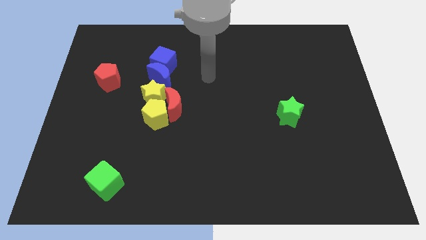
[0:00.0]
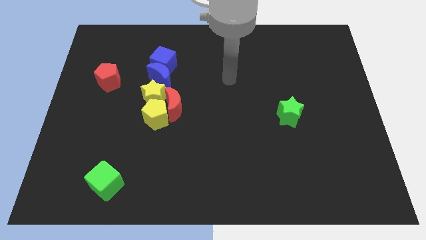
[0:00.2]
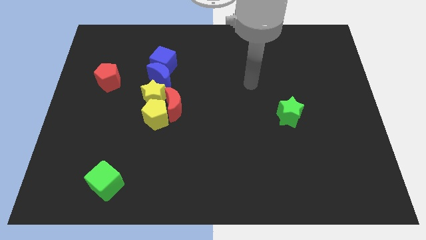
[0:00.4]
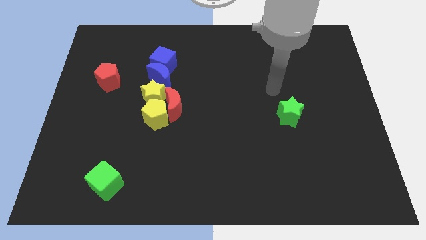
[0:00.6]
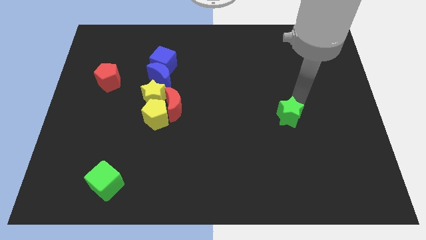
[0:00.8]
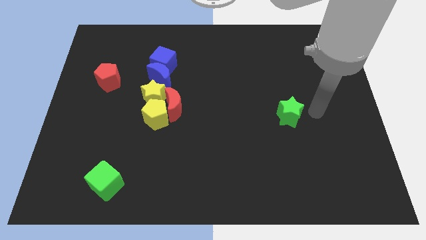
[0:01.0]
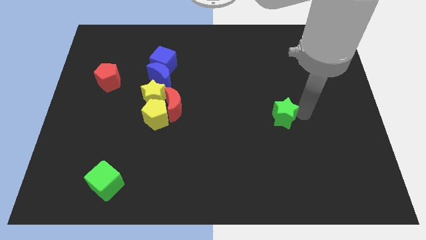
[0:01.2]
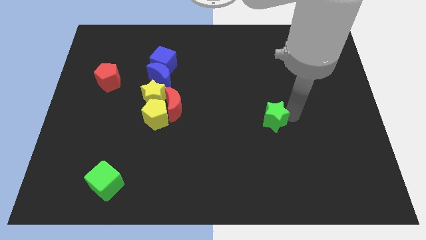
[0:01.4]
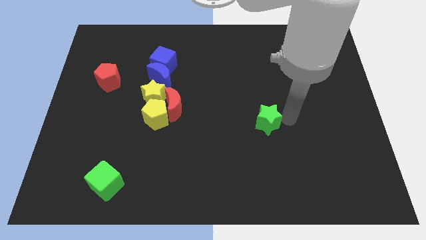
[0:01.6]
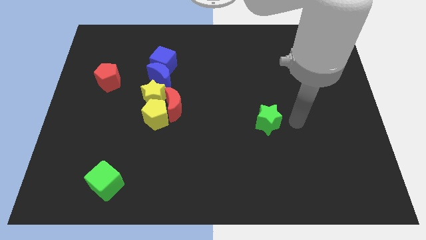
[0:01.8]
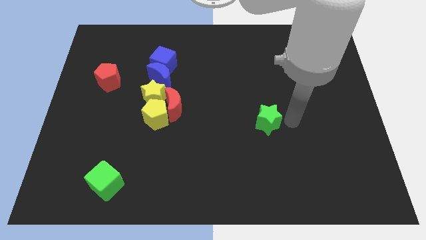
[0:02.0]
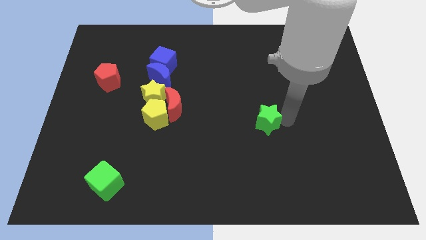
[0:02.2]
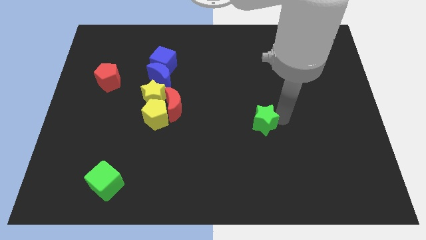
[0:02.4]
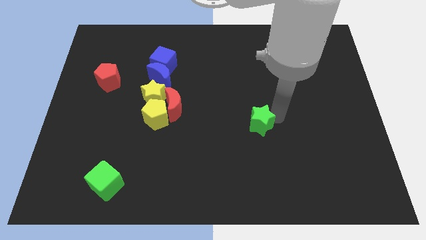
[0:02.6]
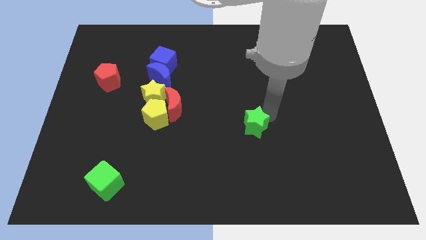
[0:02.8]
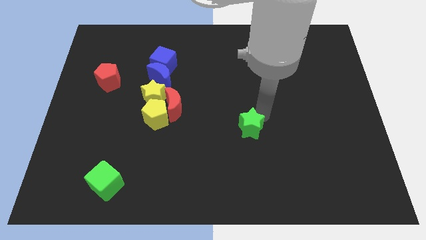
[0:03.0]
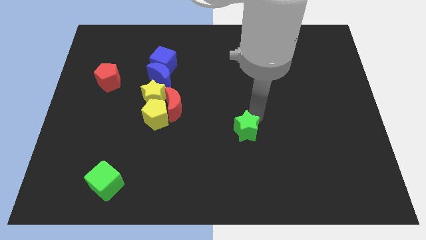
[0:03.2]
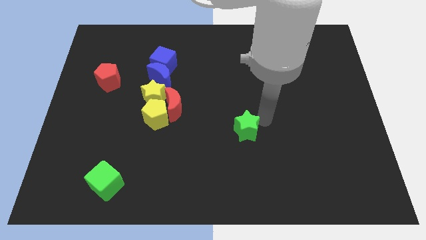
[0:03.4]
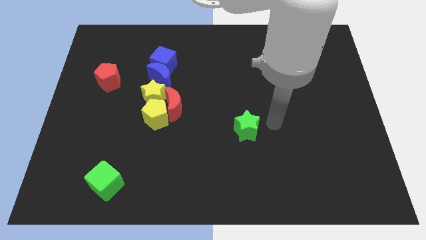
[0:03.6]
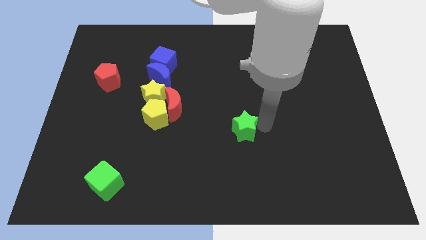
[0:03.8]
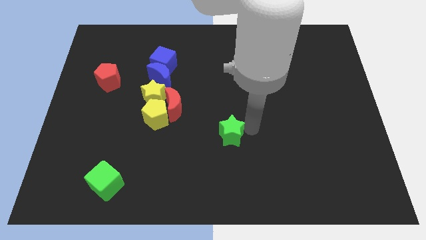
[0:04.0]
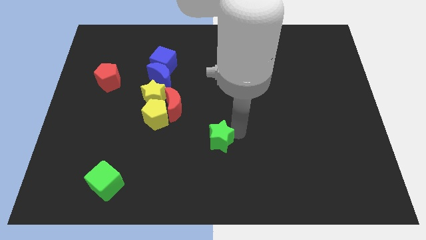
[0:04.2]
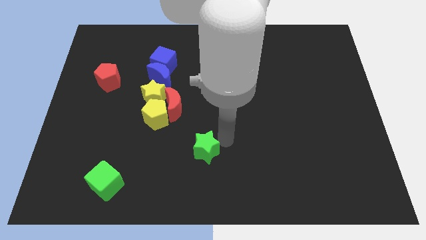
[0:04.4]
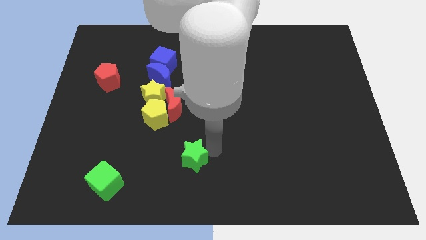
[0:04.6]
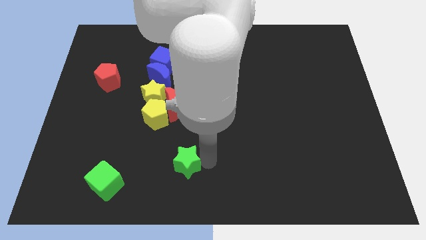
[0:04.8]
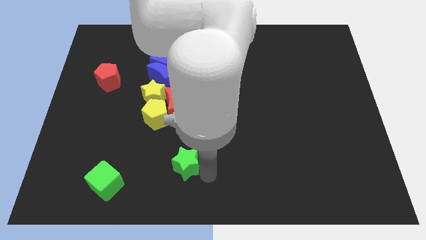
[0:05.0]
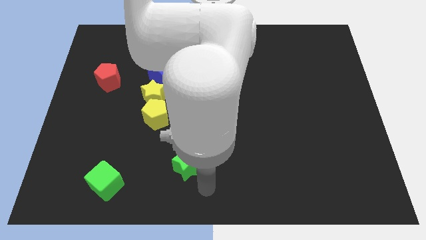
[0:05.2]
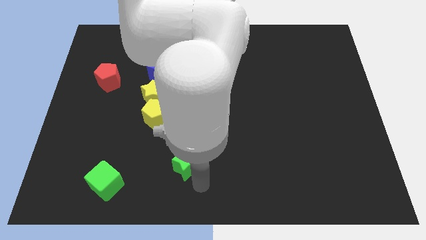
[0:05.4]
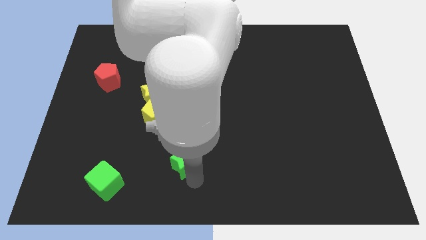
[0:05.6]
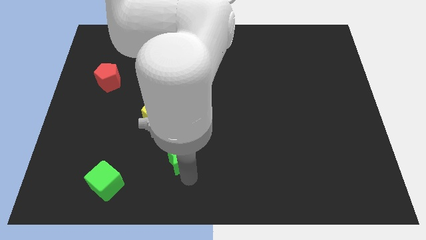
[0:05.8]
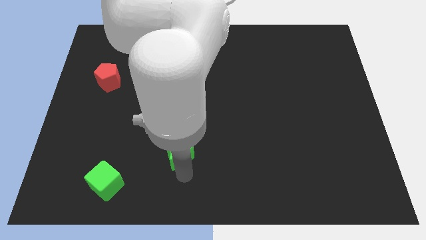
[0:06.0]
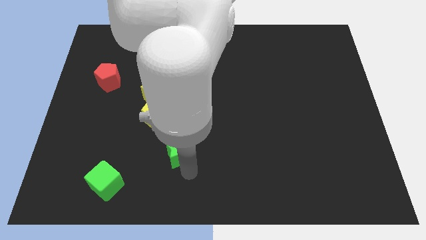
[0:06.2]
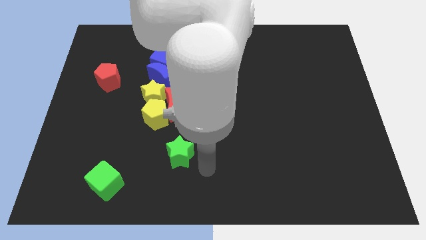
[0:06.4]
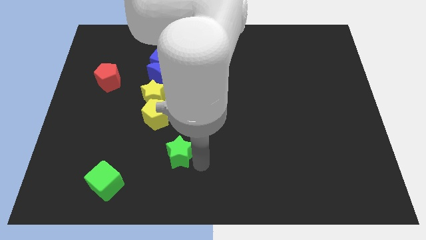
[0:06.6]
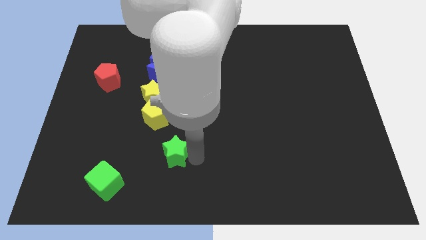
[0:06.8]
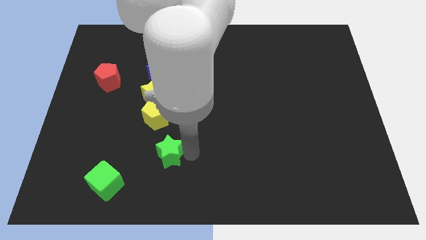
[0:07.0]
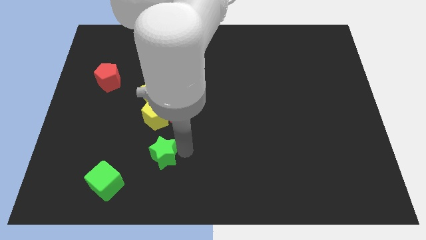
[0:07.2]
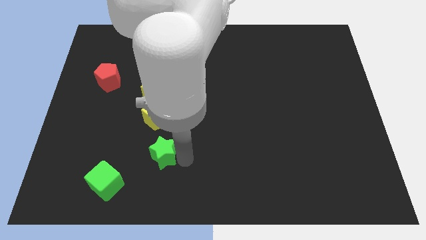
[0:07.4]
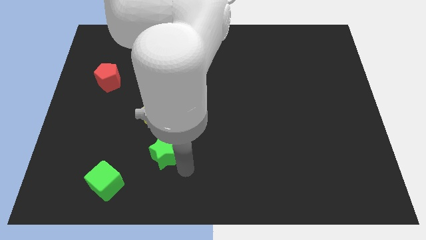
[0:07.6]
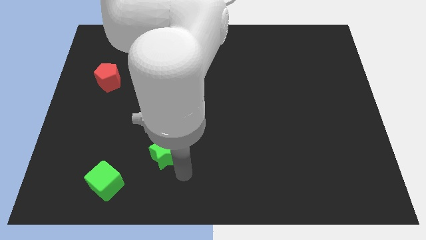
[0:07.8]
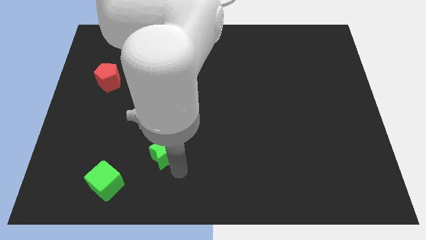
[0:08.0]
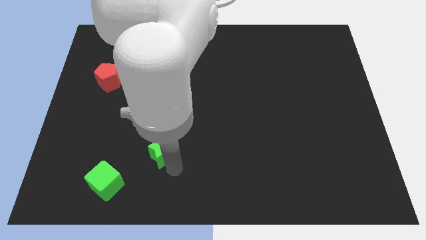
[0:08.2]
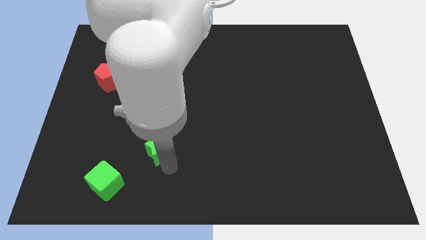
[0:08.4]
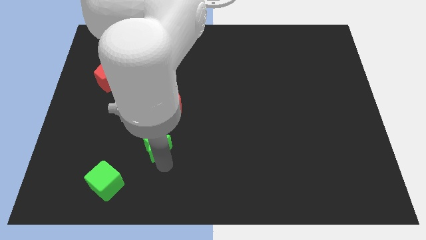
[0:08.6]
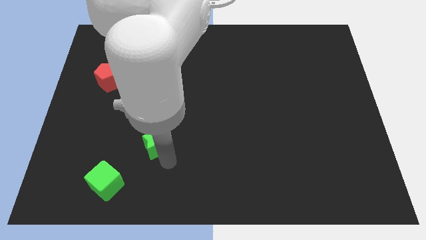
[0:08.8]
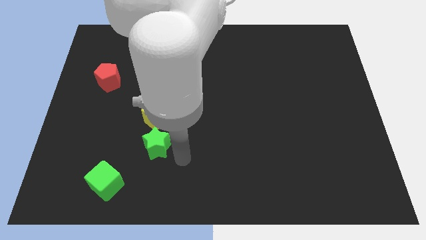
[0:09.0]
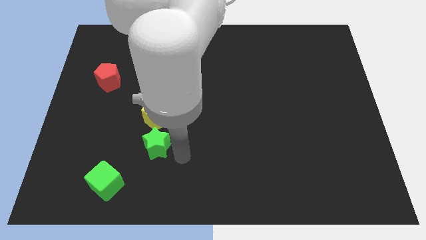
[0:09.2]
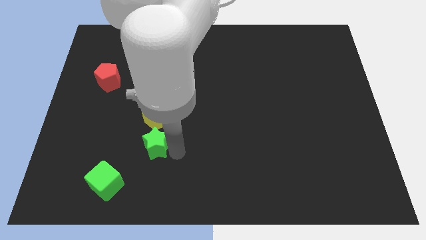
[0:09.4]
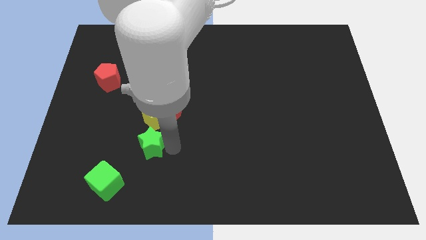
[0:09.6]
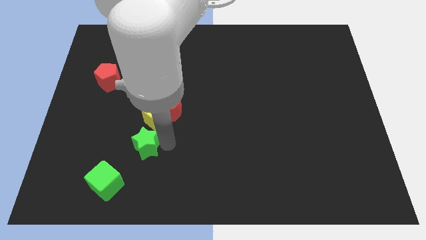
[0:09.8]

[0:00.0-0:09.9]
push the green star to the bottom left of the yellow pentagon

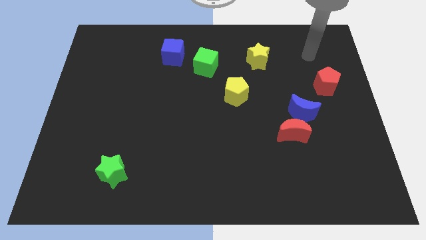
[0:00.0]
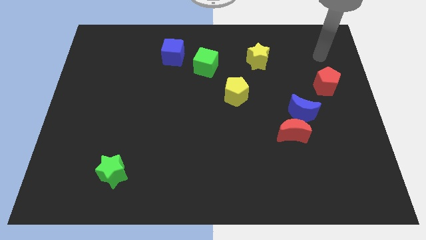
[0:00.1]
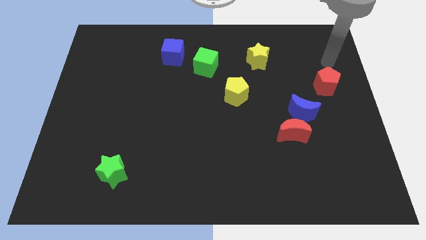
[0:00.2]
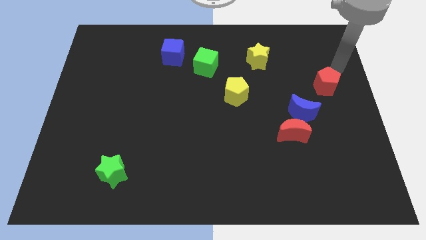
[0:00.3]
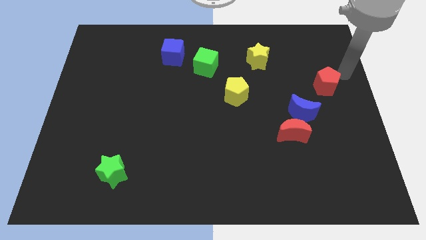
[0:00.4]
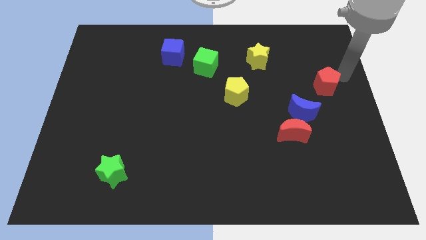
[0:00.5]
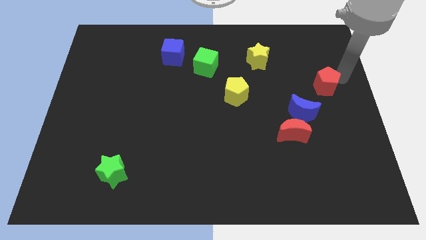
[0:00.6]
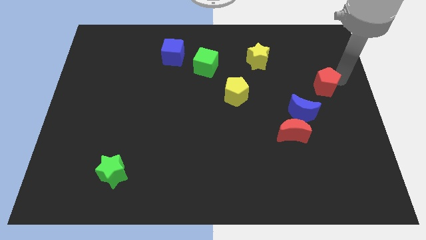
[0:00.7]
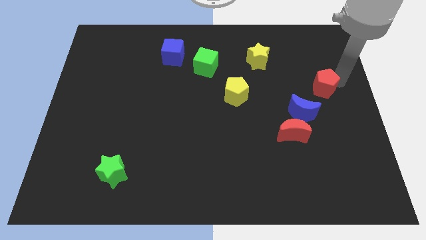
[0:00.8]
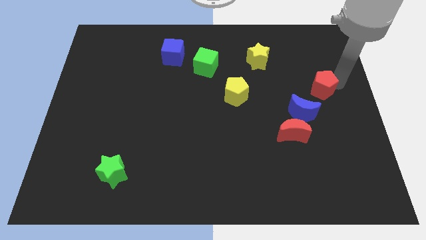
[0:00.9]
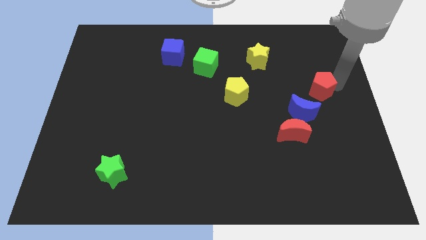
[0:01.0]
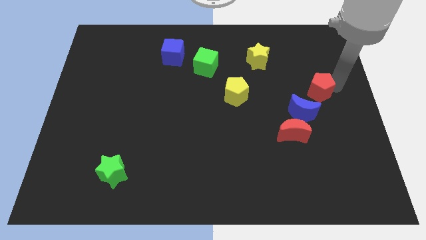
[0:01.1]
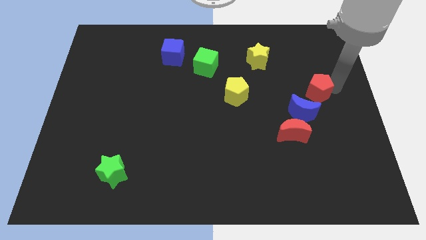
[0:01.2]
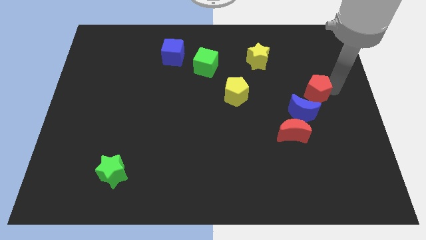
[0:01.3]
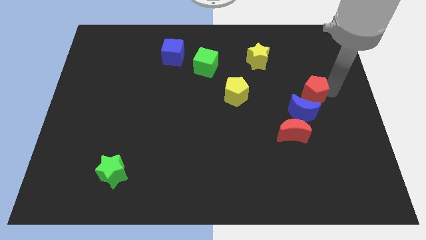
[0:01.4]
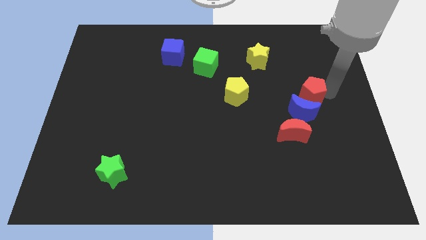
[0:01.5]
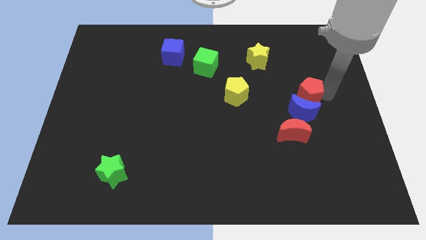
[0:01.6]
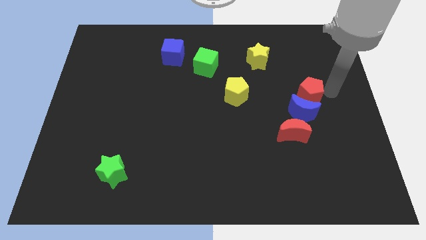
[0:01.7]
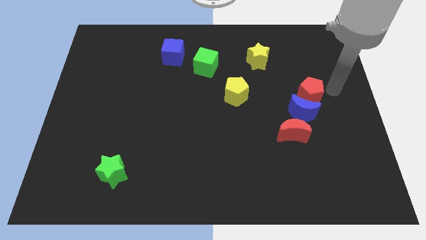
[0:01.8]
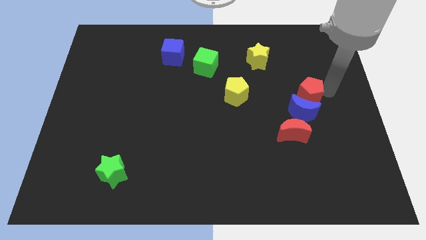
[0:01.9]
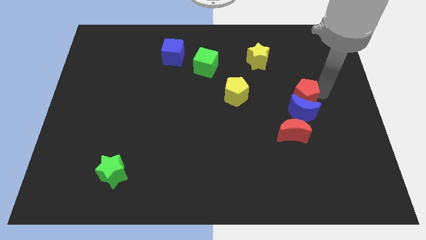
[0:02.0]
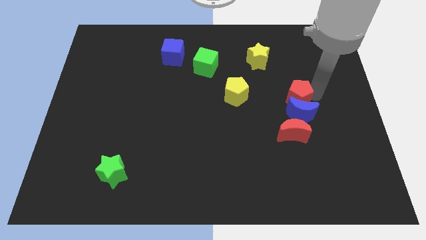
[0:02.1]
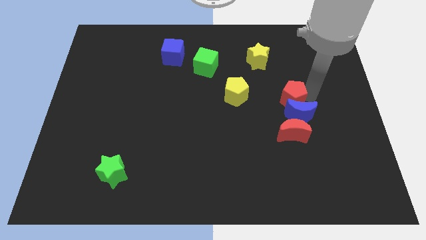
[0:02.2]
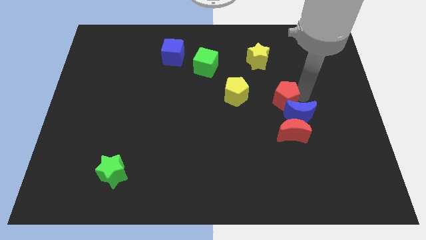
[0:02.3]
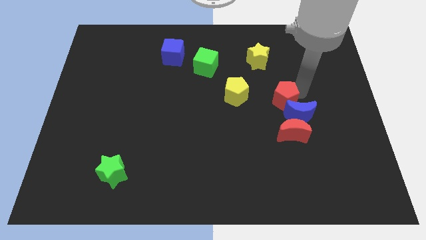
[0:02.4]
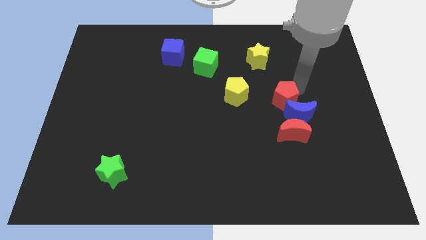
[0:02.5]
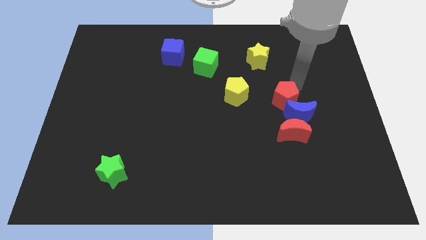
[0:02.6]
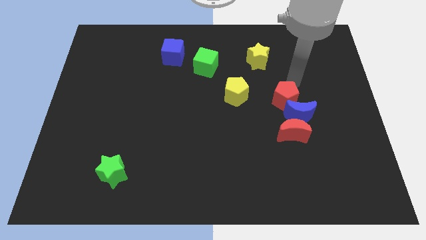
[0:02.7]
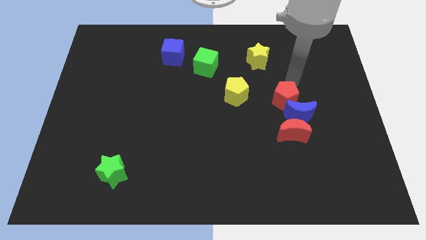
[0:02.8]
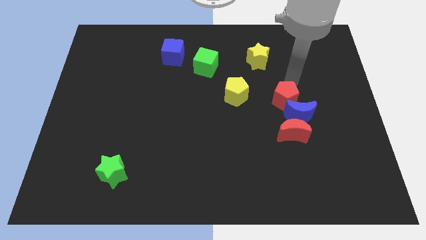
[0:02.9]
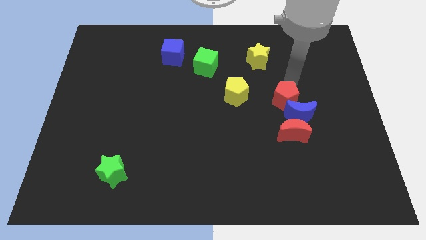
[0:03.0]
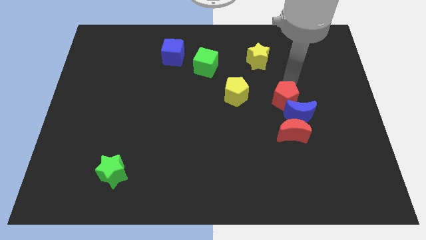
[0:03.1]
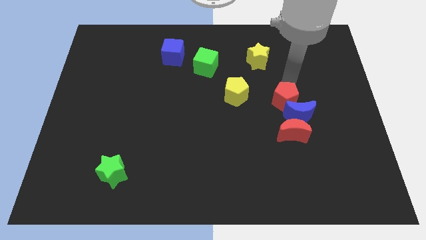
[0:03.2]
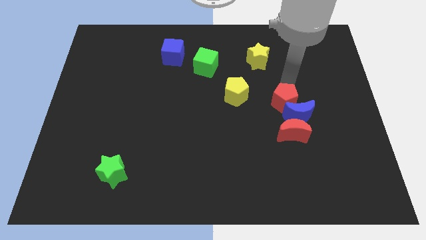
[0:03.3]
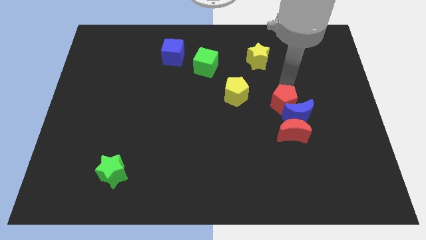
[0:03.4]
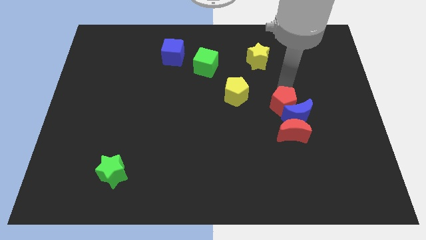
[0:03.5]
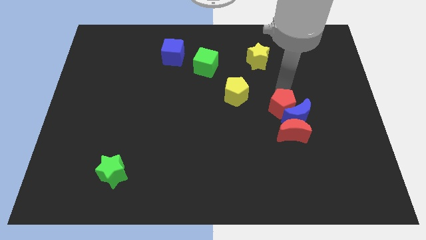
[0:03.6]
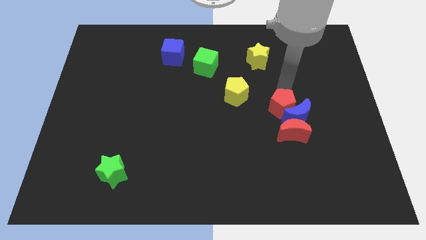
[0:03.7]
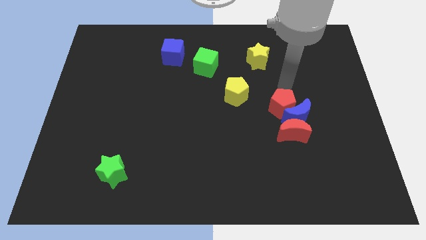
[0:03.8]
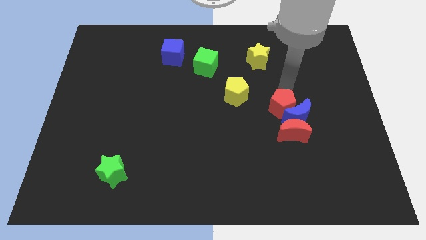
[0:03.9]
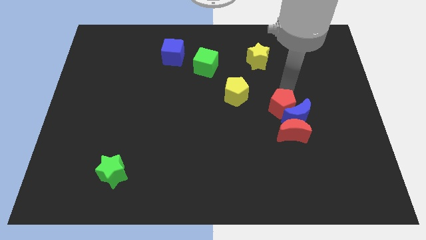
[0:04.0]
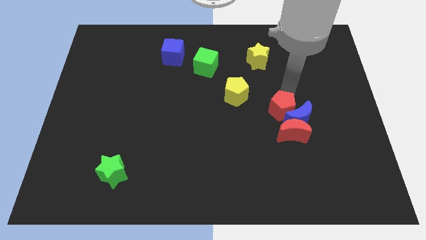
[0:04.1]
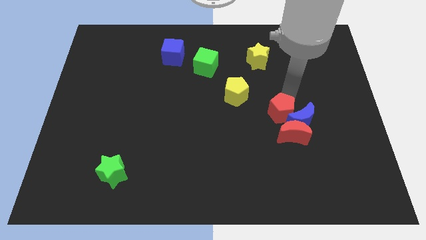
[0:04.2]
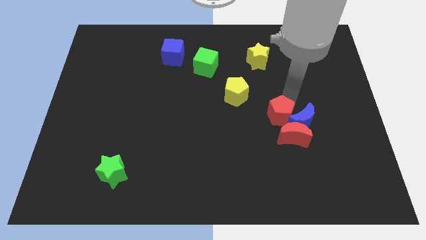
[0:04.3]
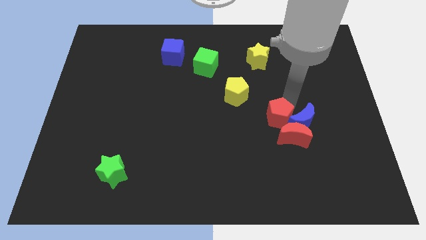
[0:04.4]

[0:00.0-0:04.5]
slide the red pentagon diagonally down and to the left of the blue moon
